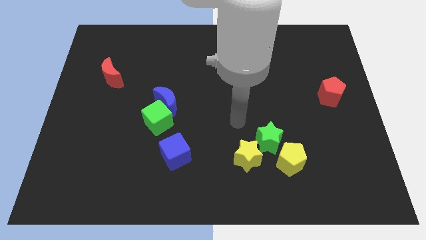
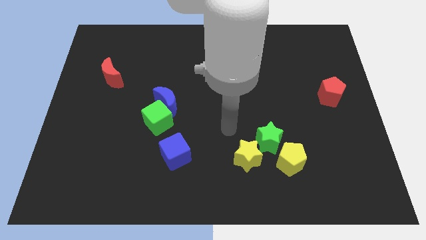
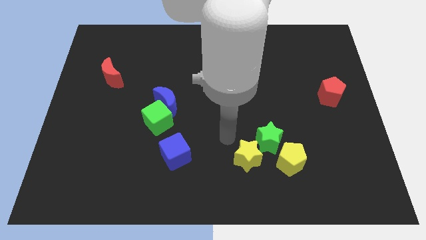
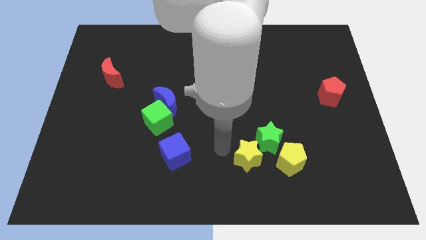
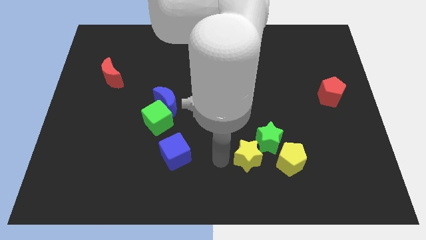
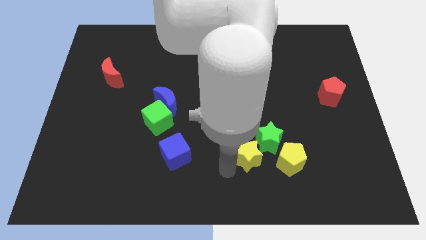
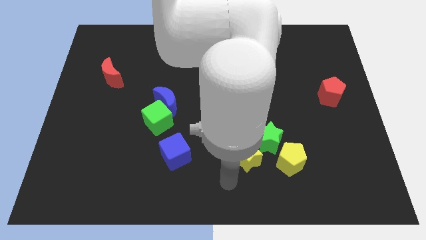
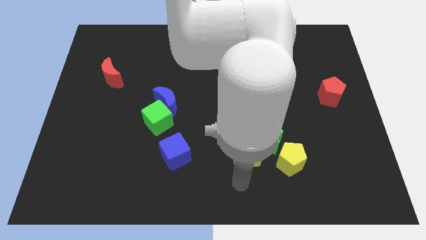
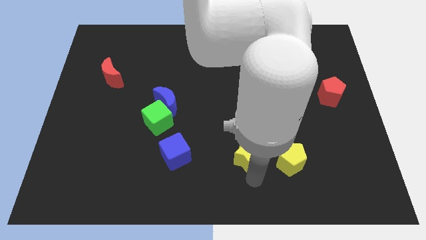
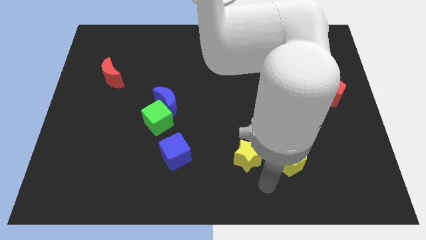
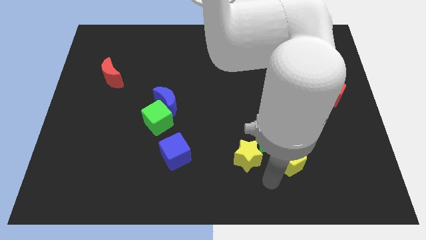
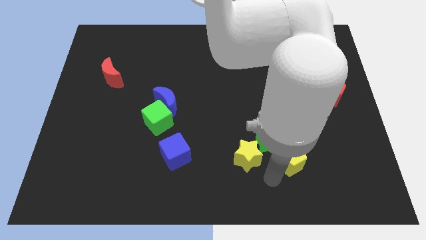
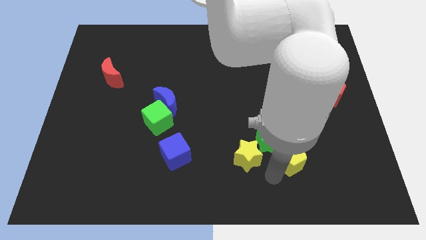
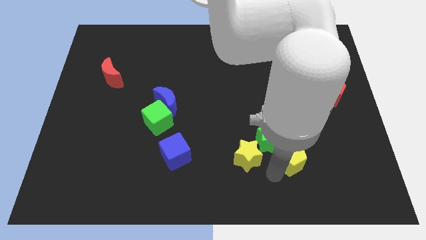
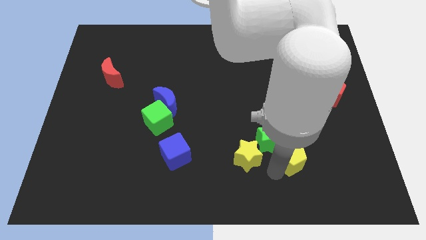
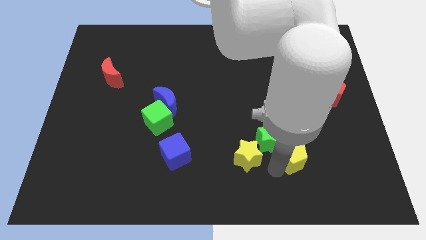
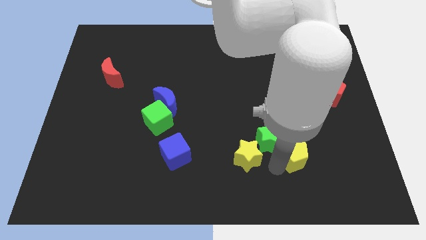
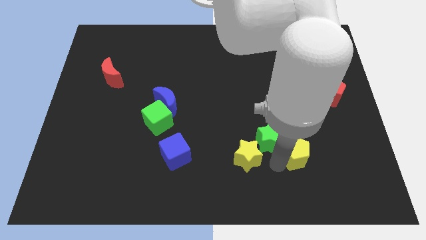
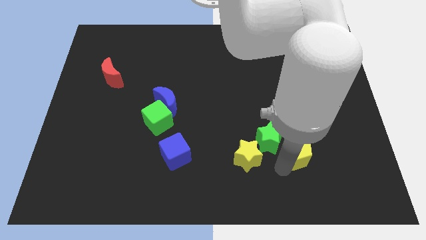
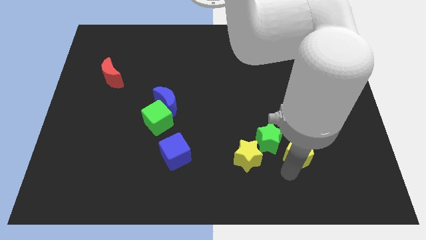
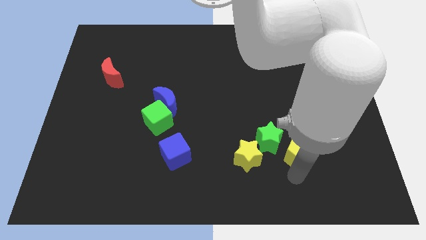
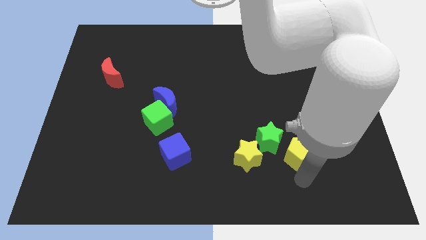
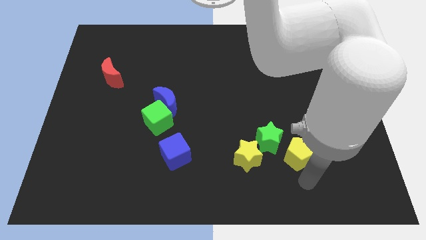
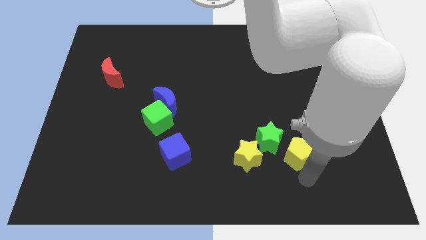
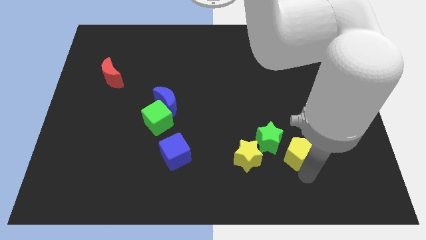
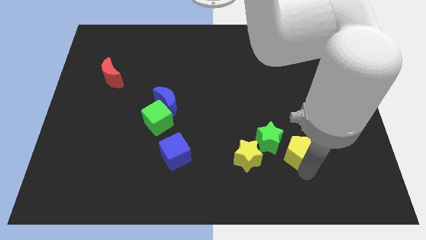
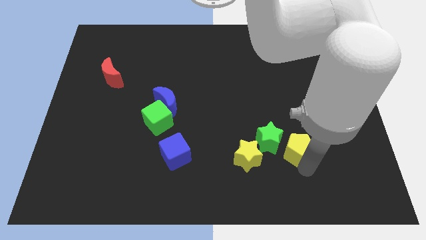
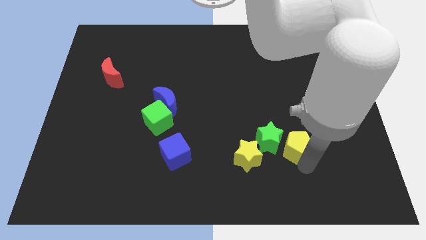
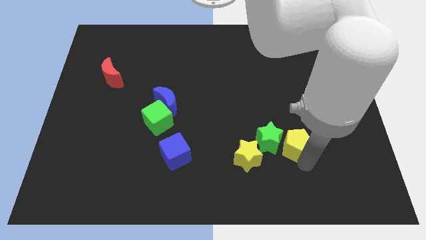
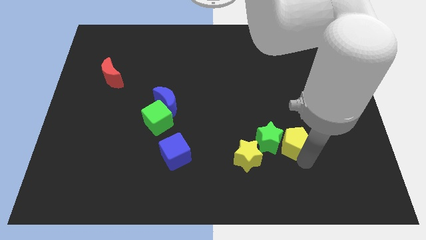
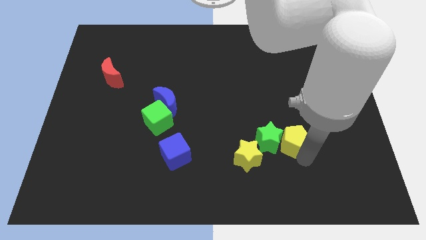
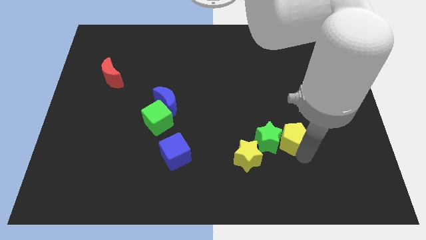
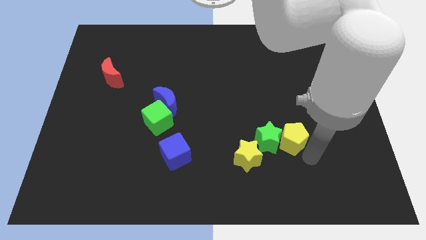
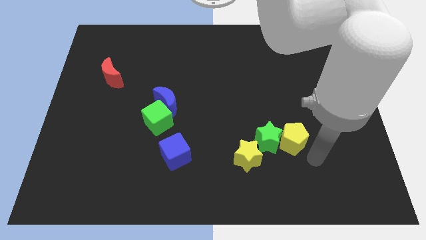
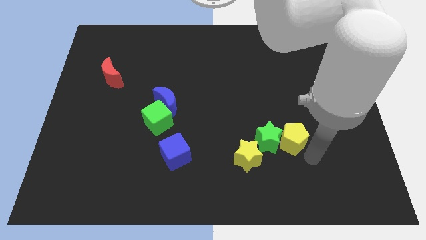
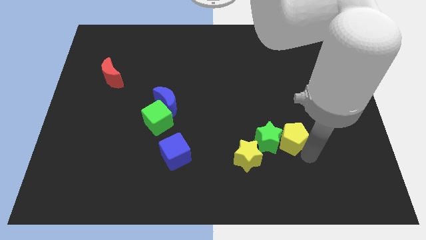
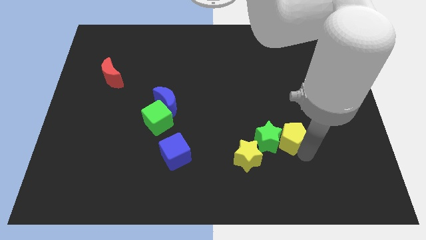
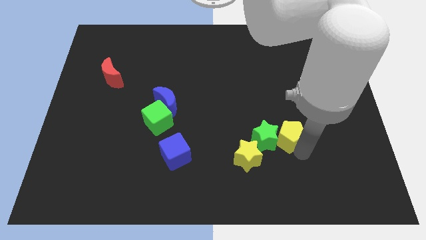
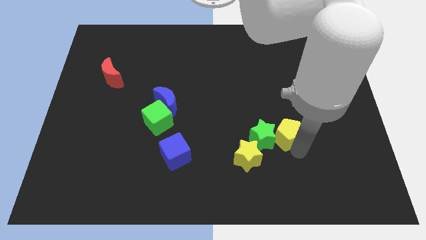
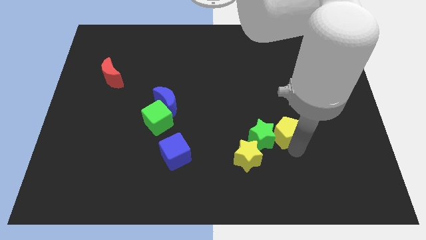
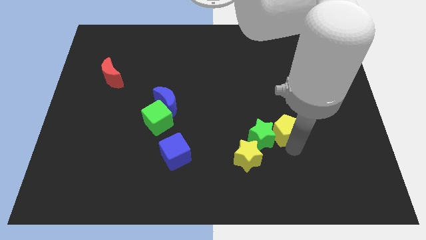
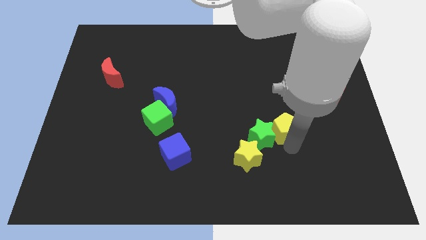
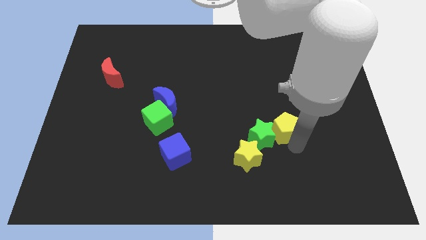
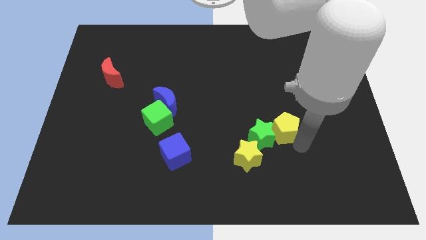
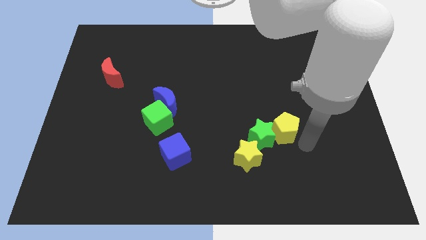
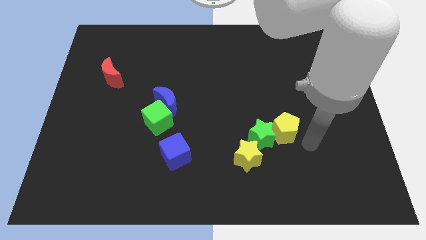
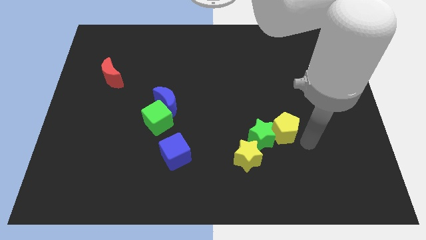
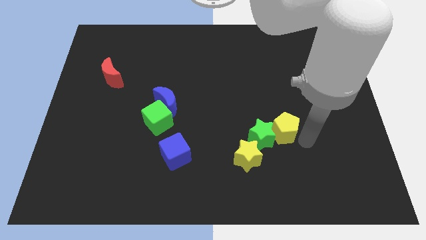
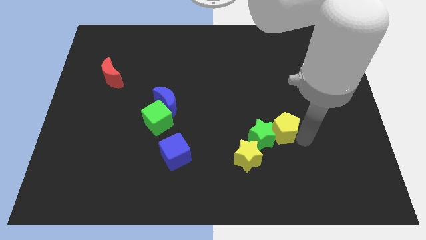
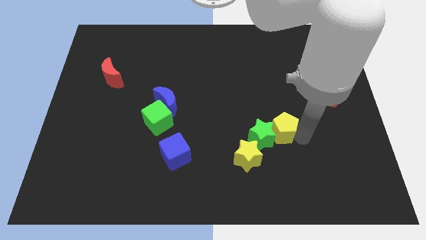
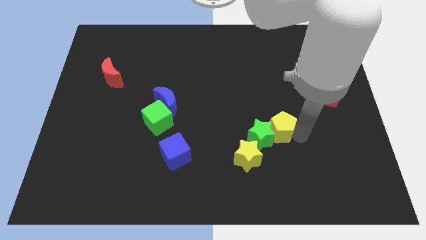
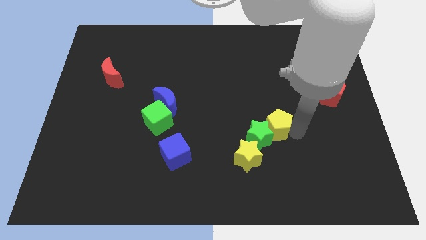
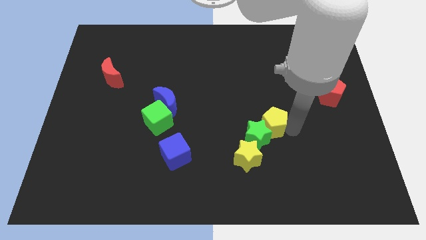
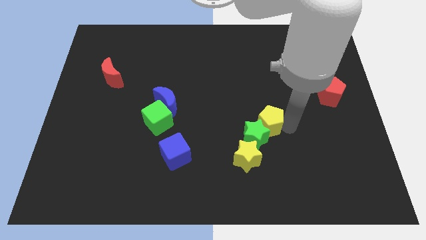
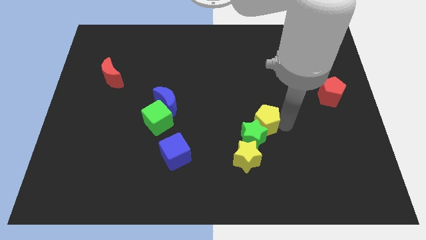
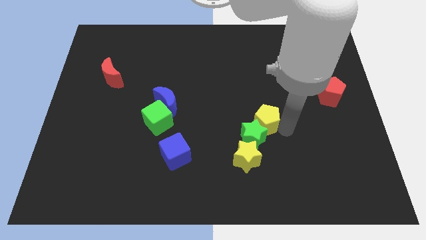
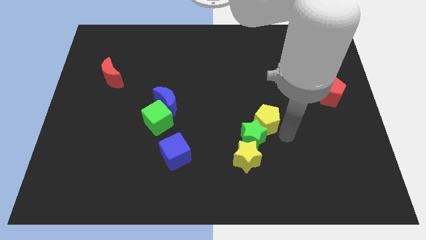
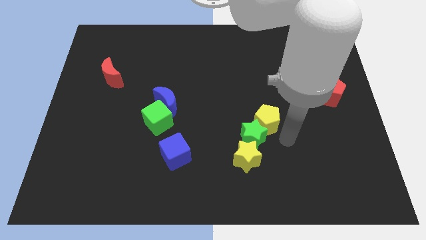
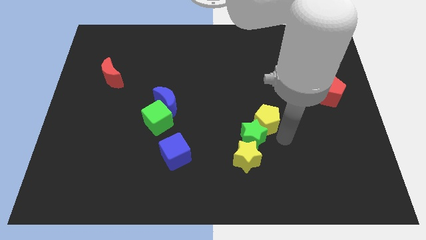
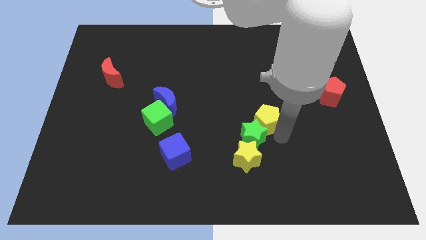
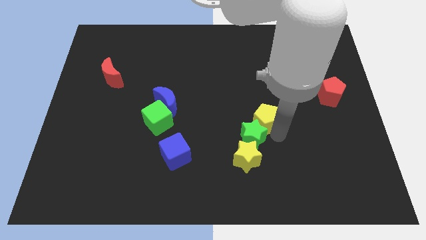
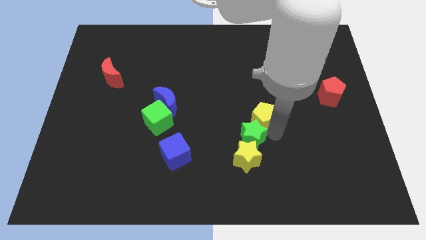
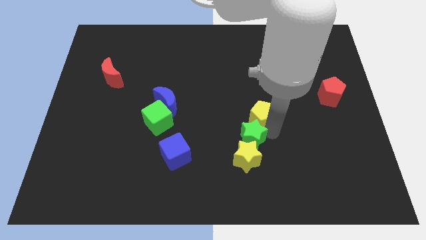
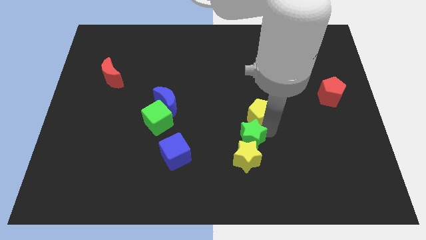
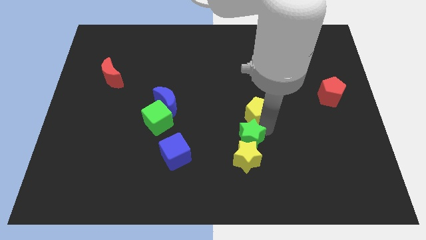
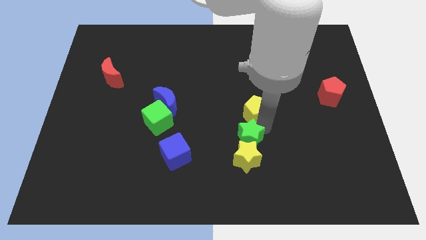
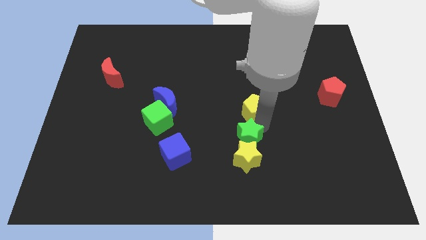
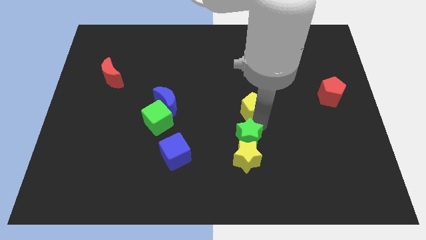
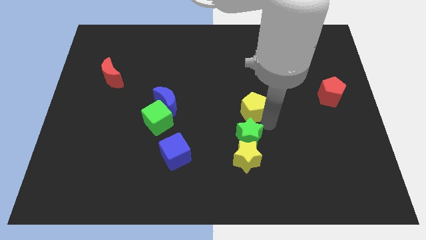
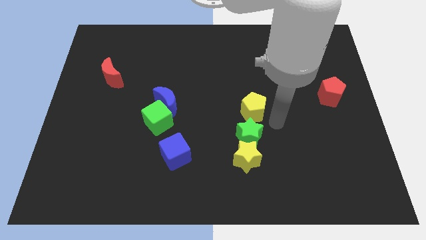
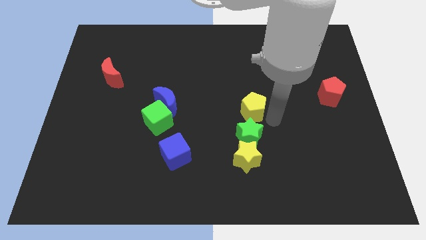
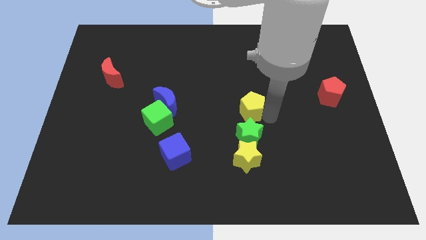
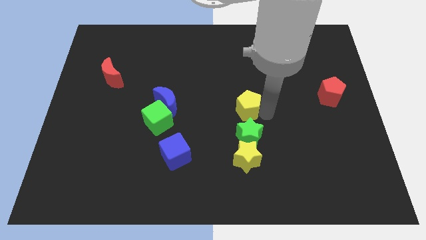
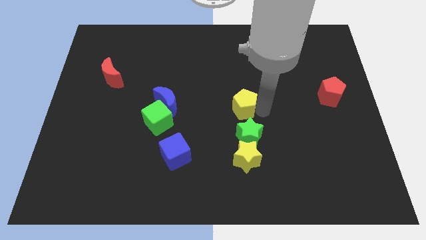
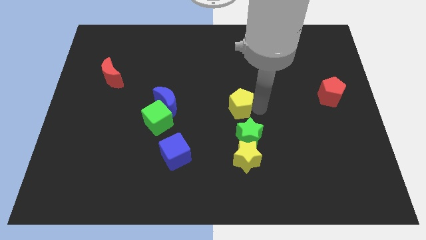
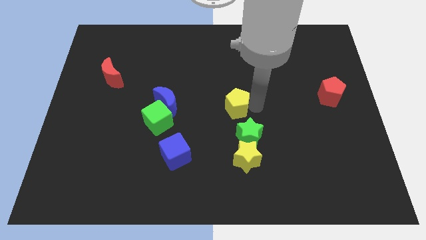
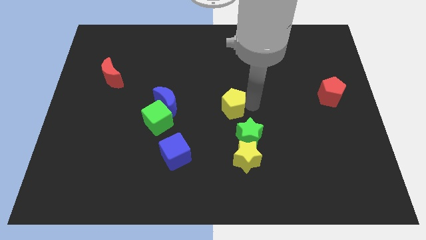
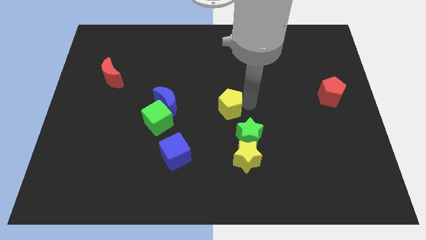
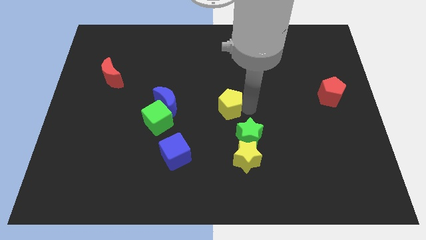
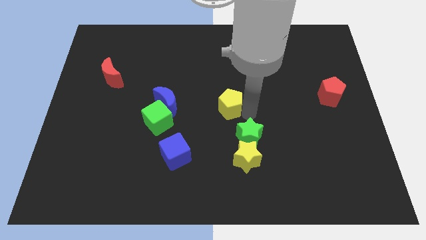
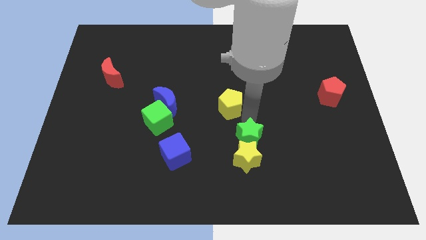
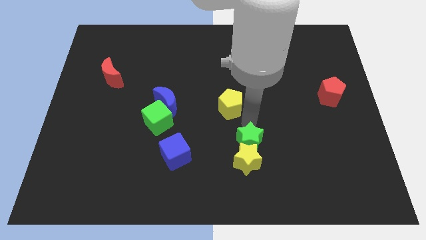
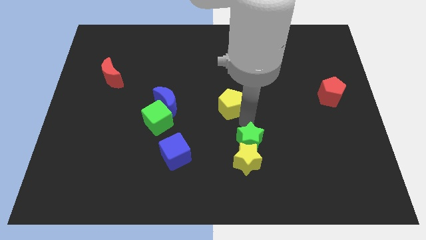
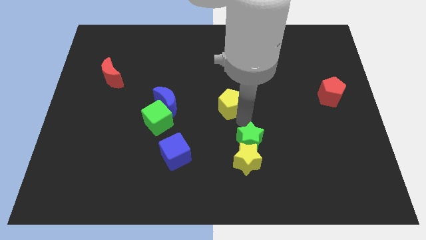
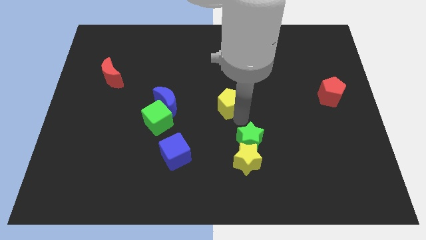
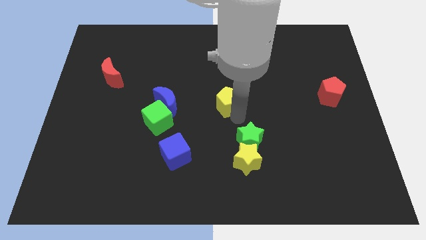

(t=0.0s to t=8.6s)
slide the yellow pentagon upwards and to the left diagonally
